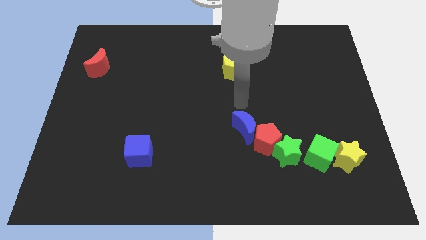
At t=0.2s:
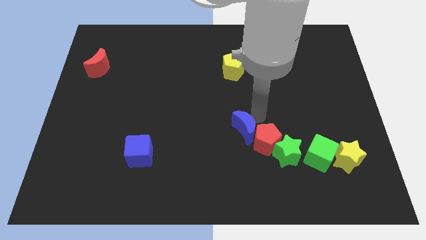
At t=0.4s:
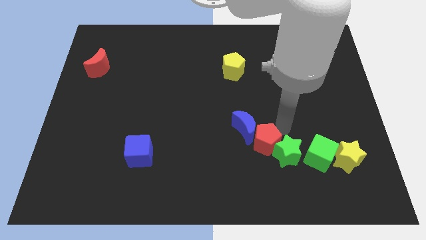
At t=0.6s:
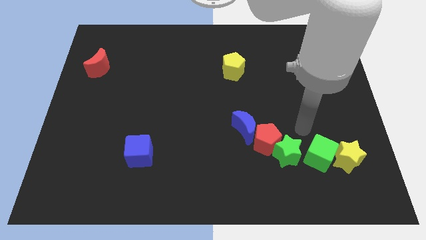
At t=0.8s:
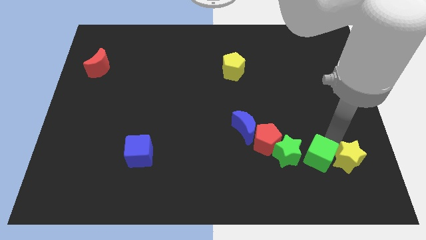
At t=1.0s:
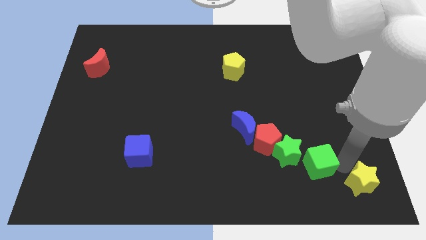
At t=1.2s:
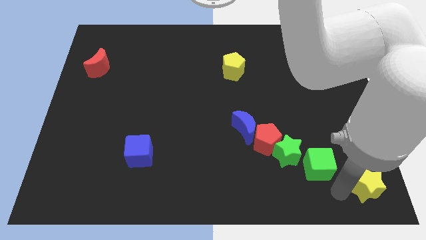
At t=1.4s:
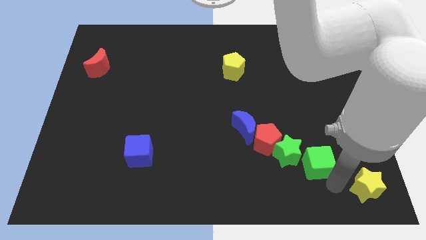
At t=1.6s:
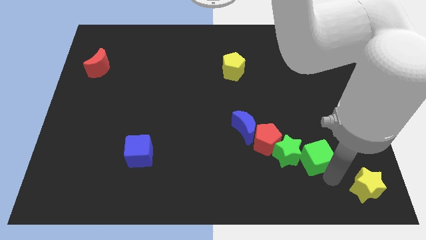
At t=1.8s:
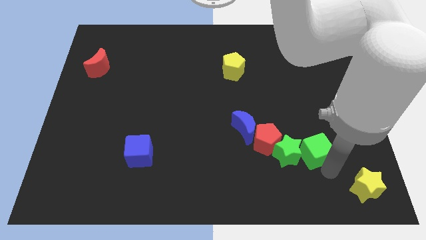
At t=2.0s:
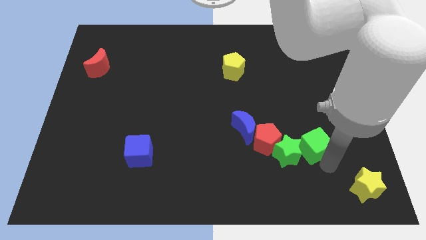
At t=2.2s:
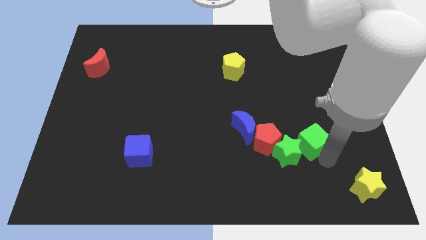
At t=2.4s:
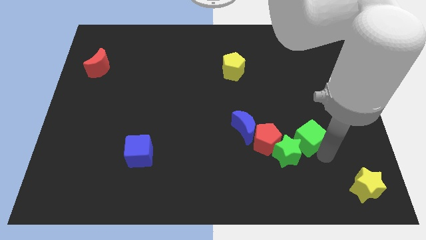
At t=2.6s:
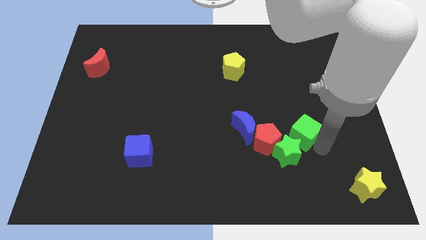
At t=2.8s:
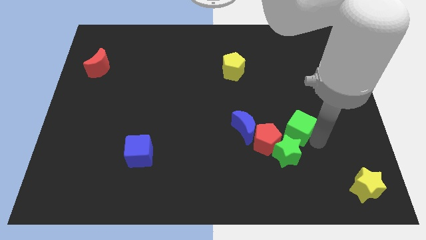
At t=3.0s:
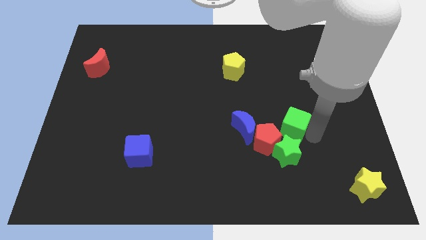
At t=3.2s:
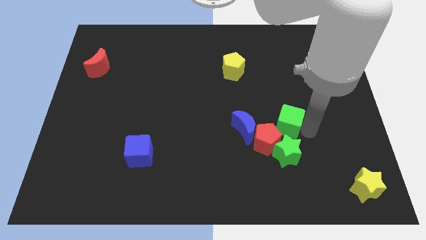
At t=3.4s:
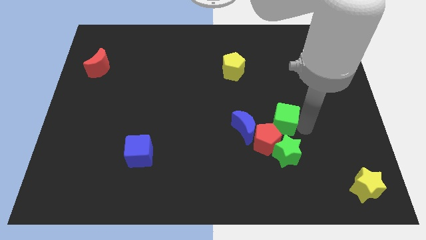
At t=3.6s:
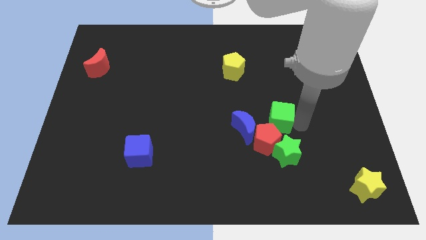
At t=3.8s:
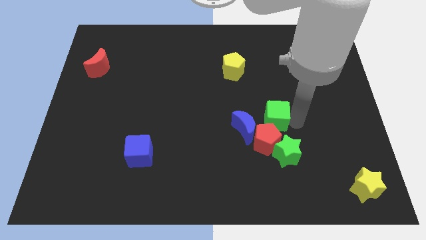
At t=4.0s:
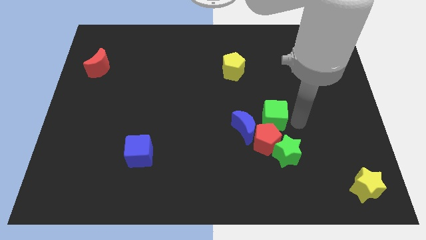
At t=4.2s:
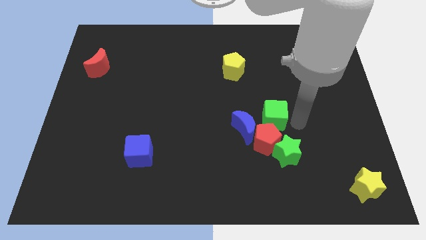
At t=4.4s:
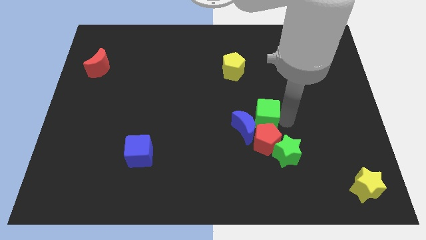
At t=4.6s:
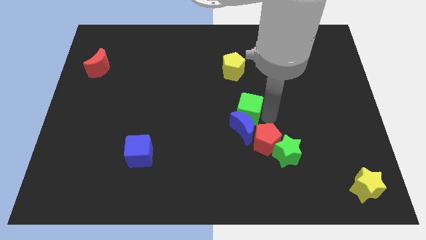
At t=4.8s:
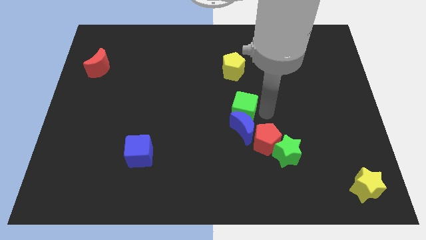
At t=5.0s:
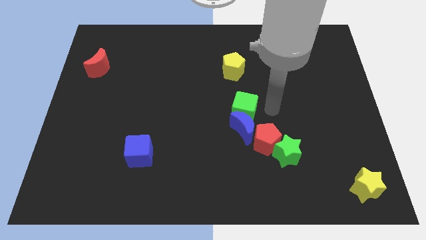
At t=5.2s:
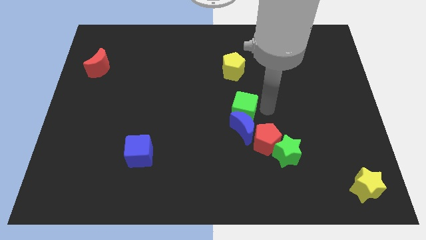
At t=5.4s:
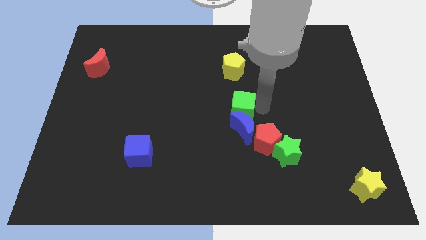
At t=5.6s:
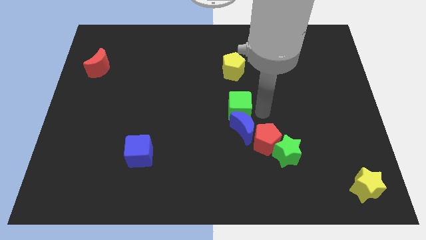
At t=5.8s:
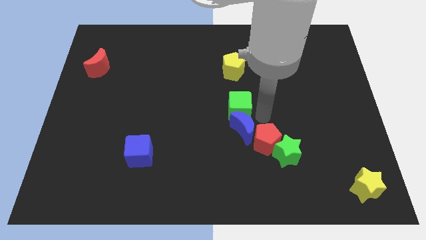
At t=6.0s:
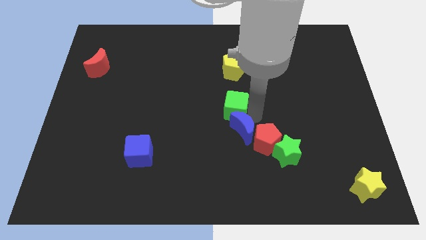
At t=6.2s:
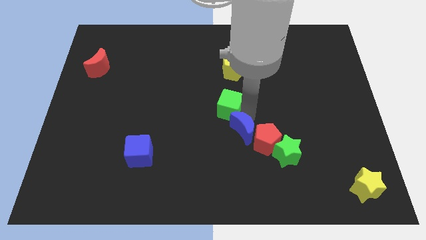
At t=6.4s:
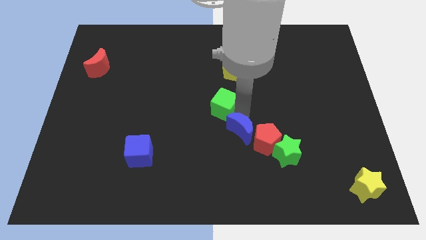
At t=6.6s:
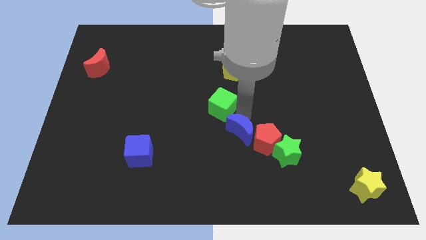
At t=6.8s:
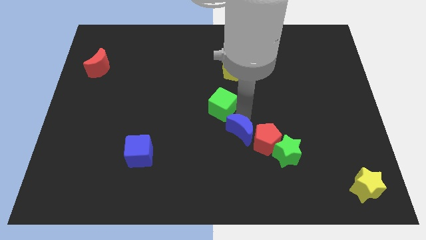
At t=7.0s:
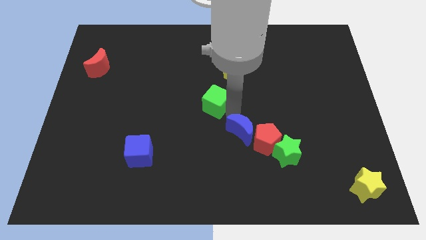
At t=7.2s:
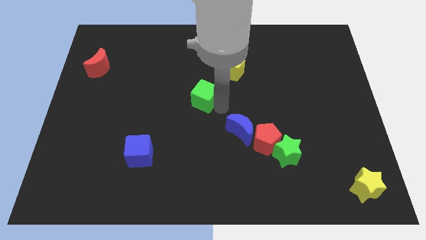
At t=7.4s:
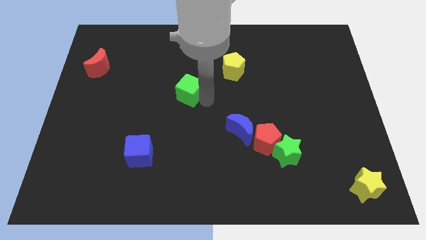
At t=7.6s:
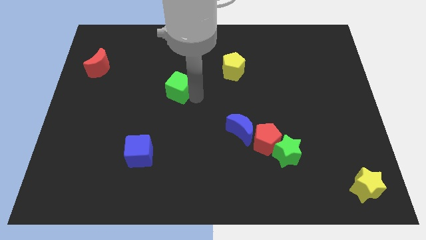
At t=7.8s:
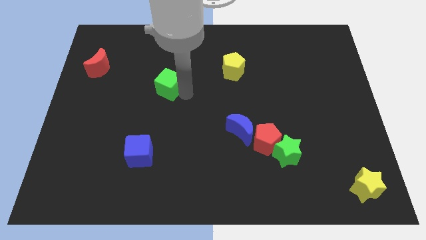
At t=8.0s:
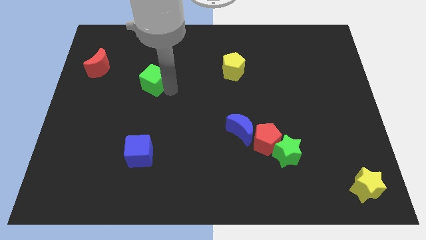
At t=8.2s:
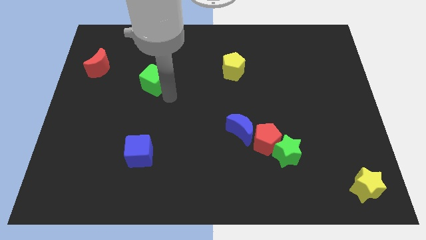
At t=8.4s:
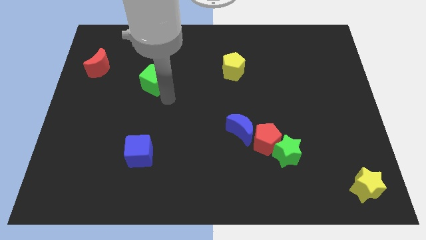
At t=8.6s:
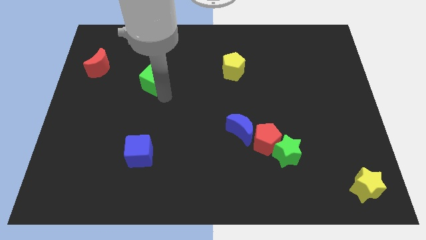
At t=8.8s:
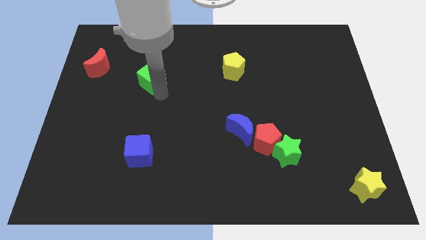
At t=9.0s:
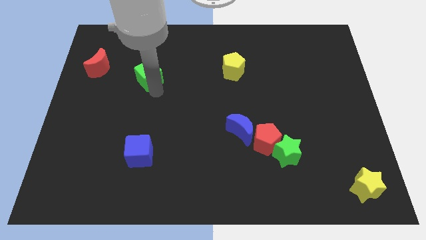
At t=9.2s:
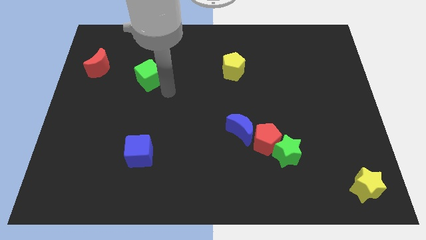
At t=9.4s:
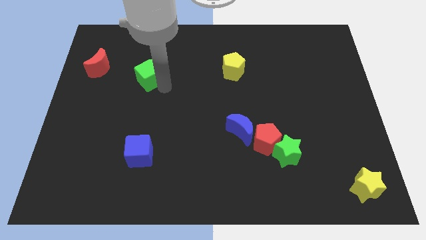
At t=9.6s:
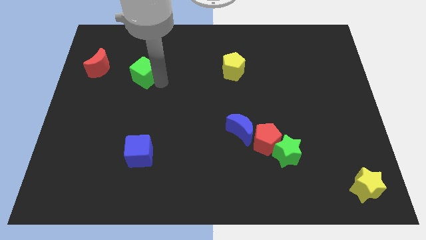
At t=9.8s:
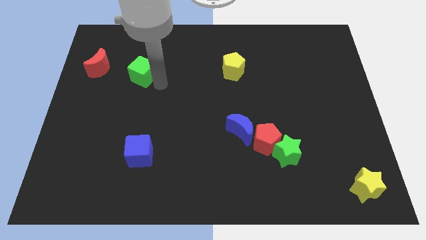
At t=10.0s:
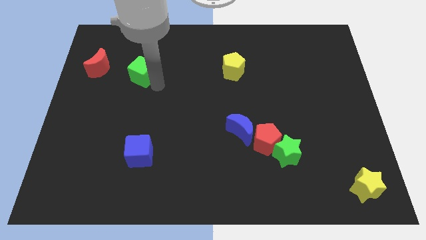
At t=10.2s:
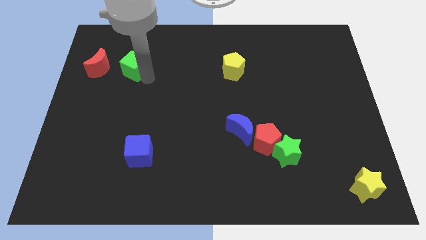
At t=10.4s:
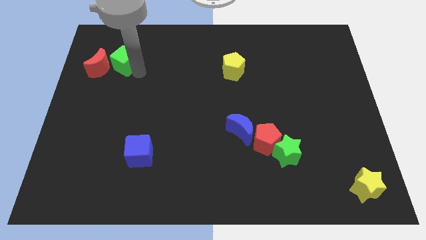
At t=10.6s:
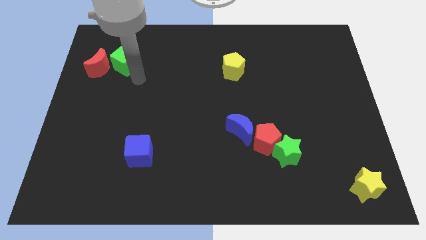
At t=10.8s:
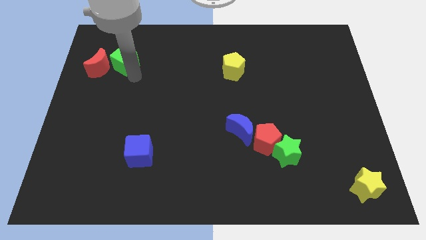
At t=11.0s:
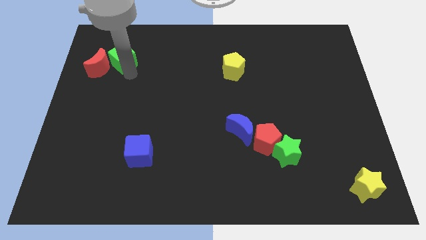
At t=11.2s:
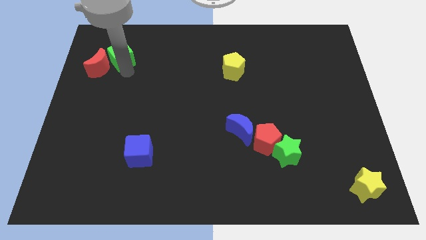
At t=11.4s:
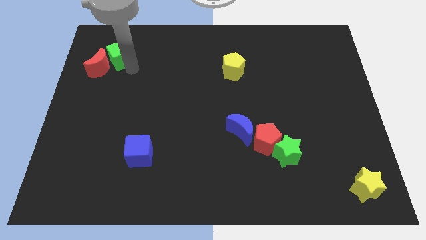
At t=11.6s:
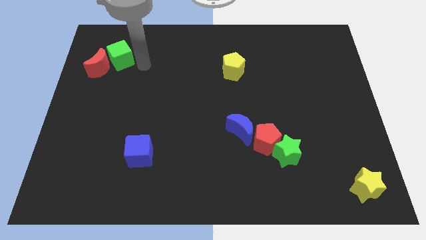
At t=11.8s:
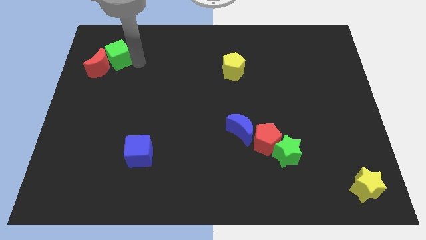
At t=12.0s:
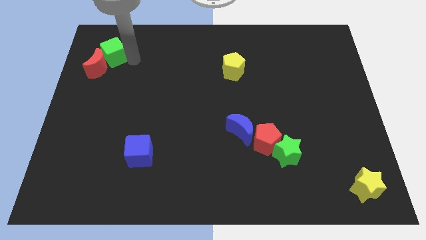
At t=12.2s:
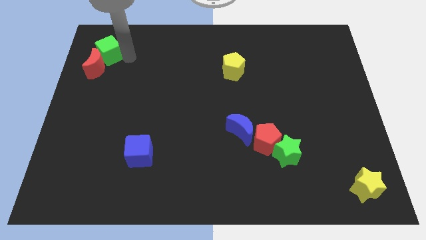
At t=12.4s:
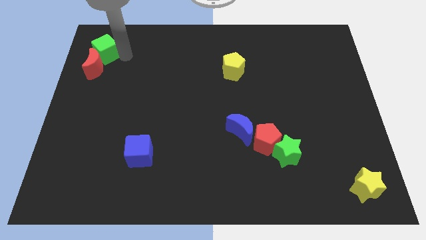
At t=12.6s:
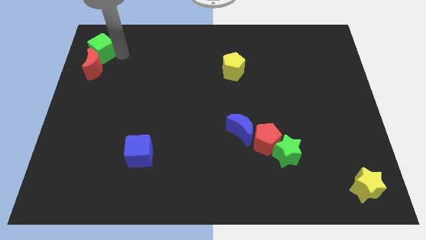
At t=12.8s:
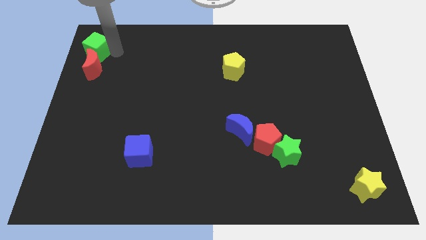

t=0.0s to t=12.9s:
put the green cube to the top left
